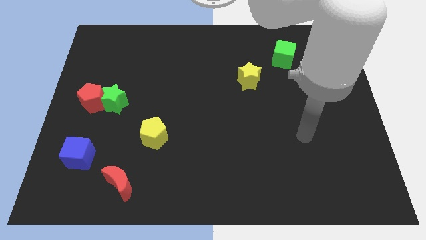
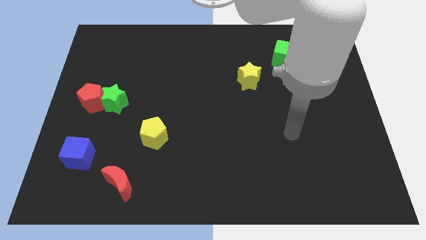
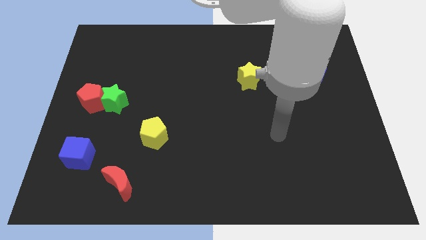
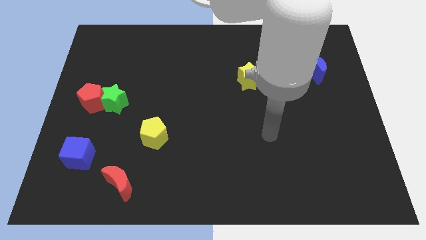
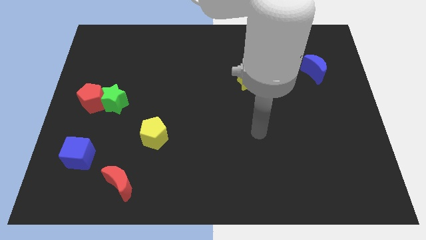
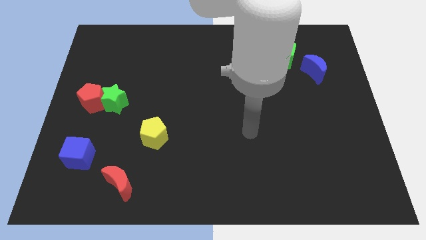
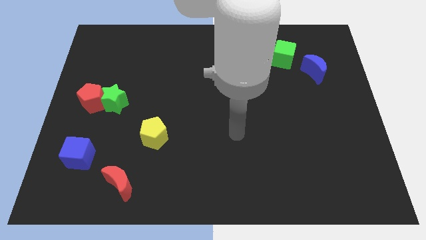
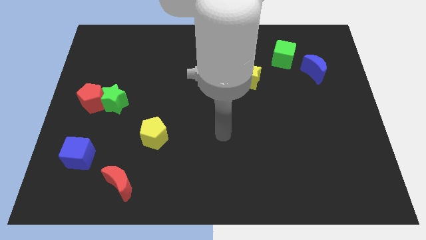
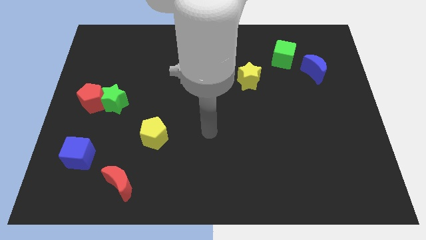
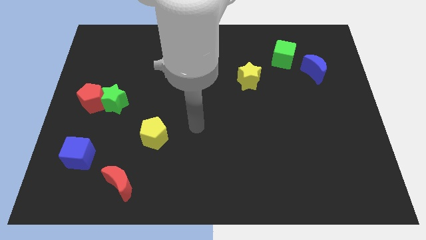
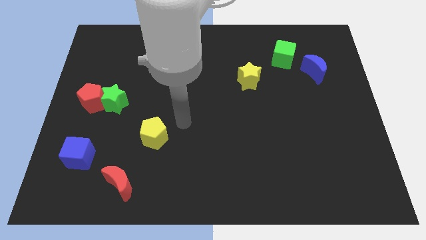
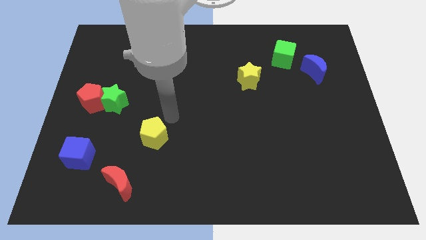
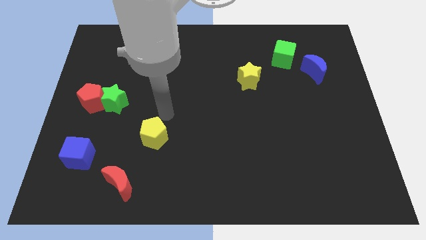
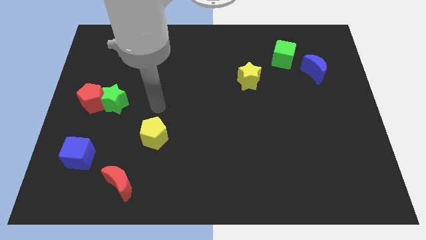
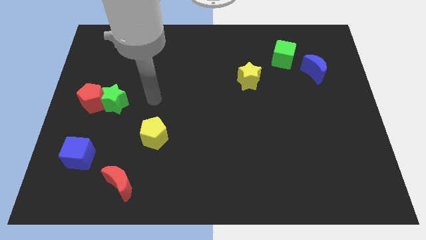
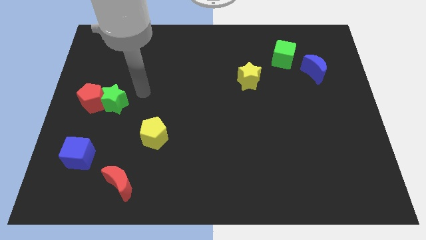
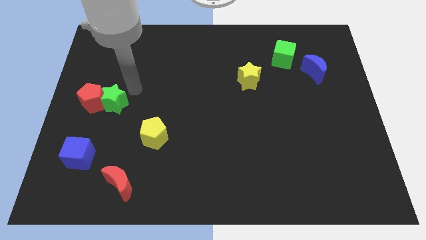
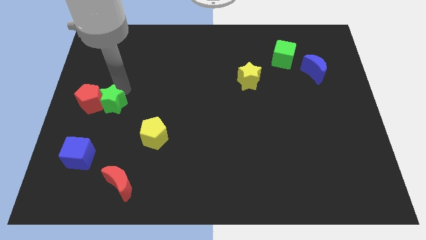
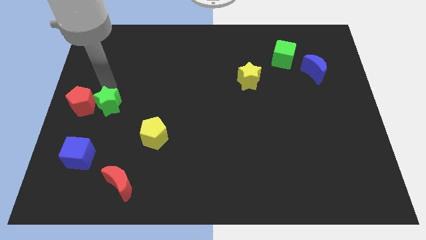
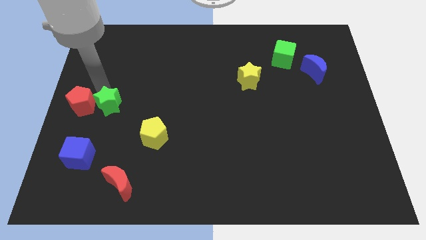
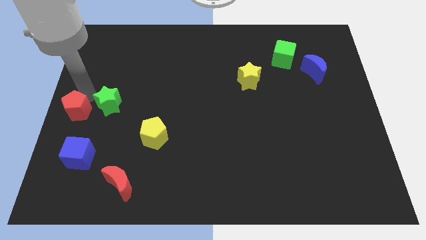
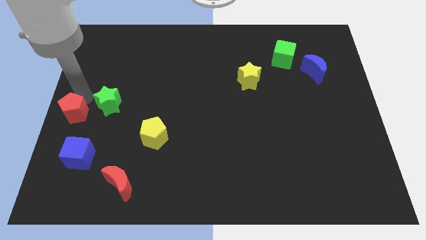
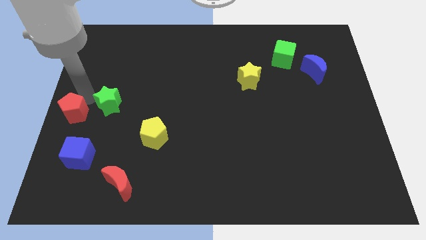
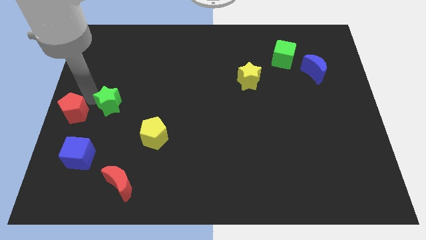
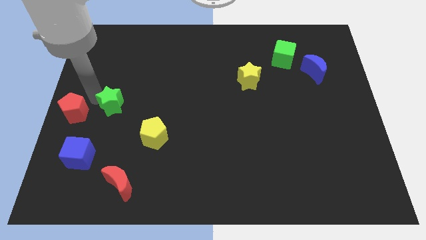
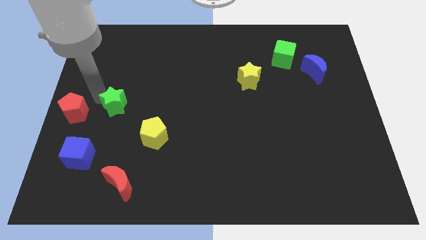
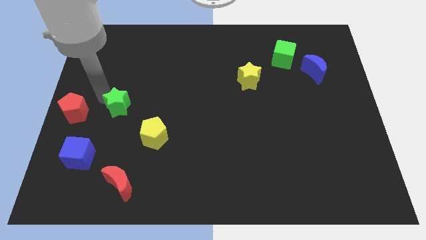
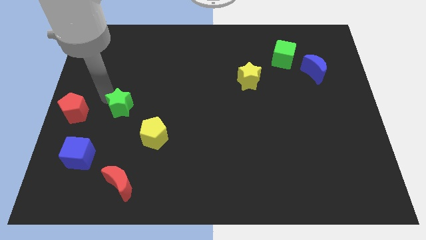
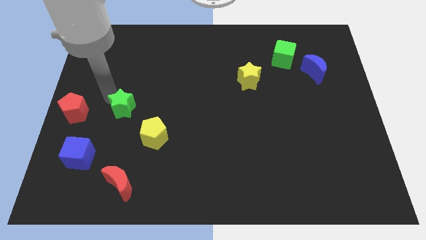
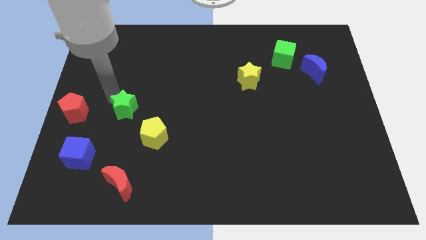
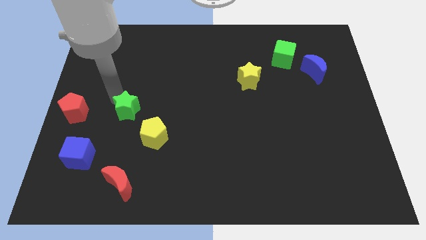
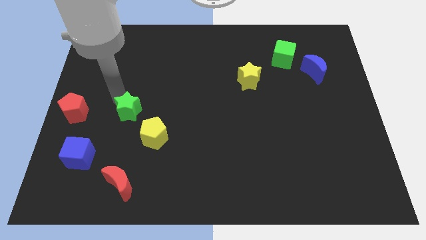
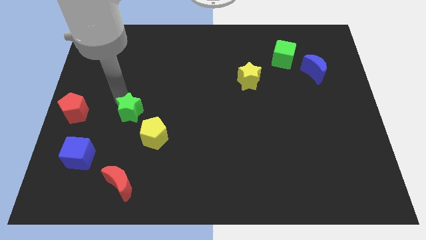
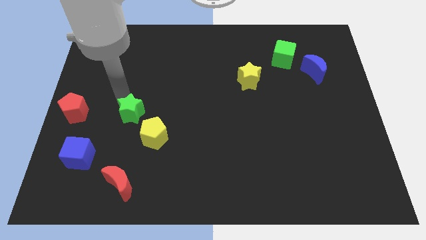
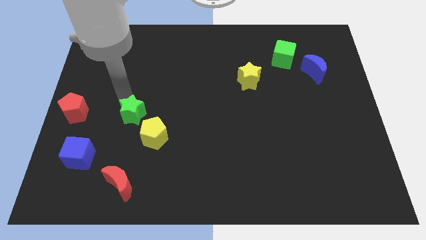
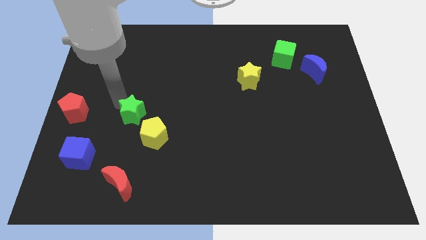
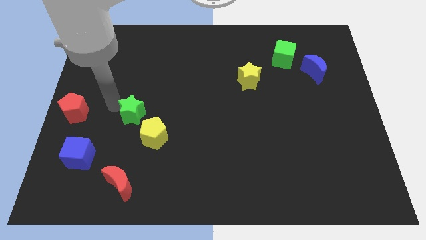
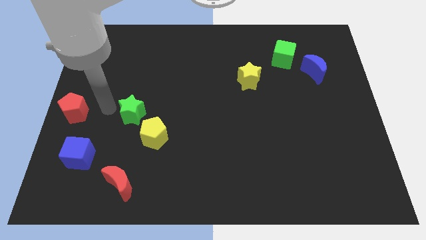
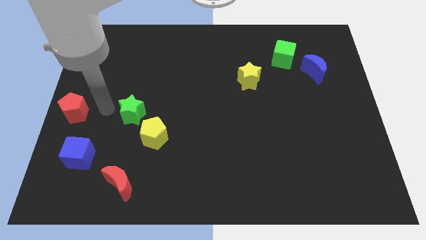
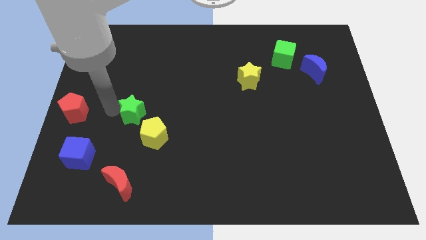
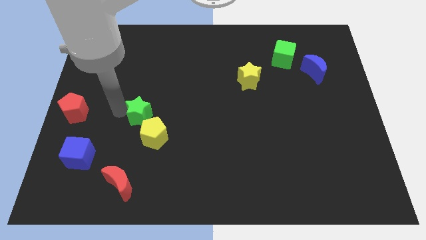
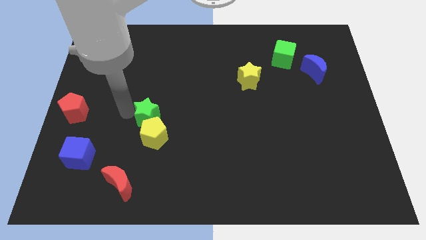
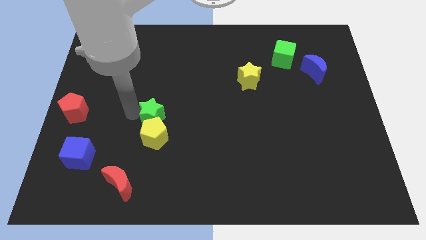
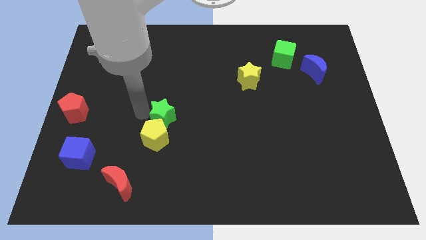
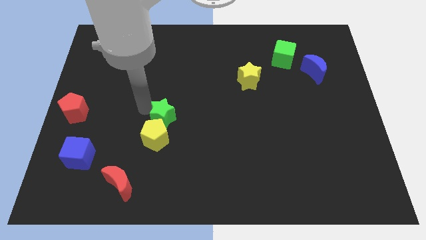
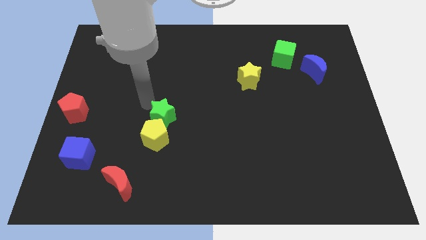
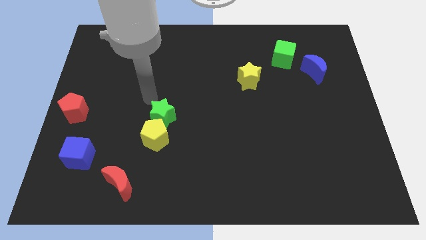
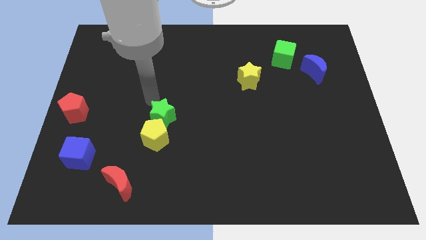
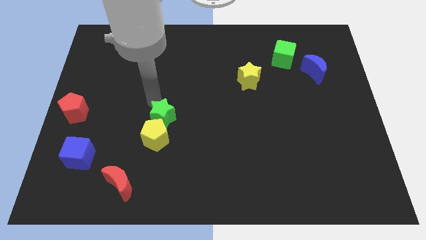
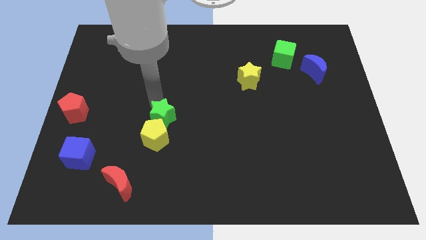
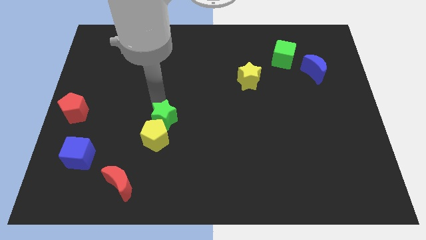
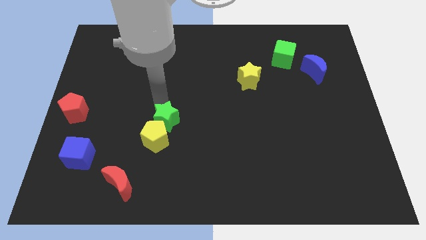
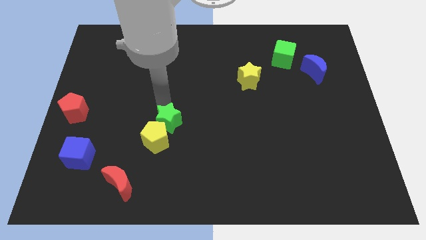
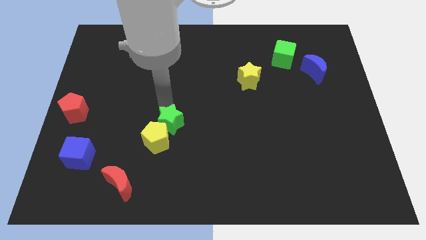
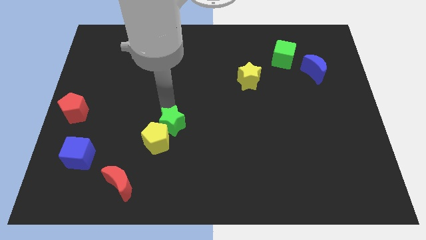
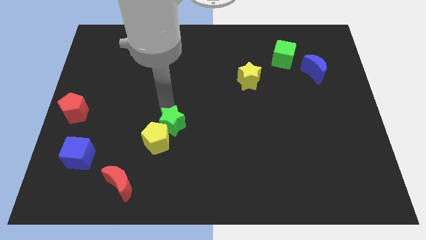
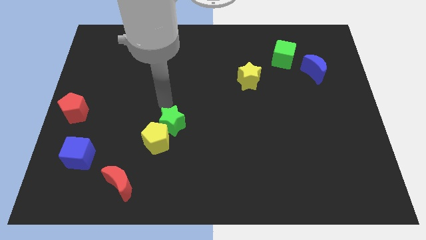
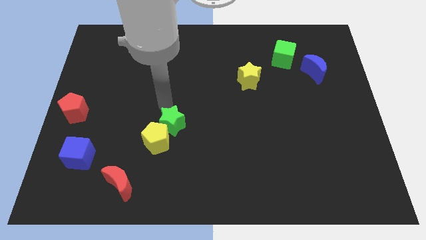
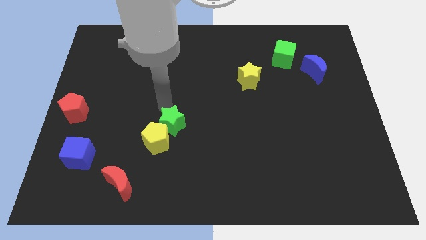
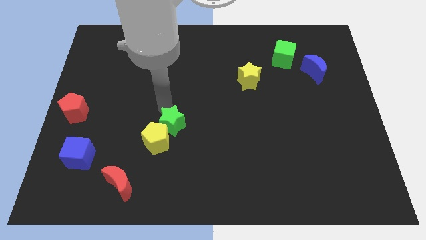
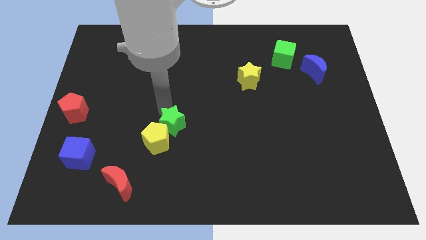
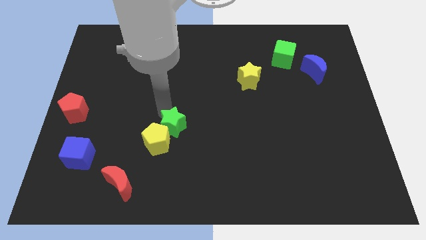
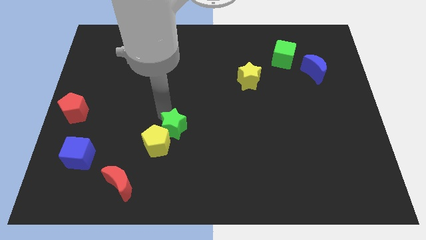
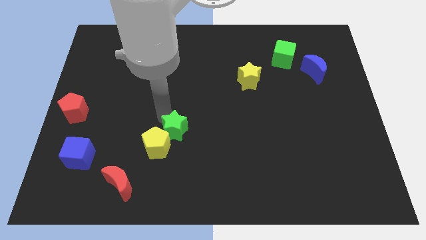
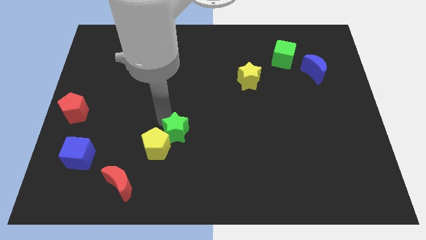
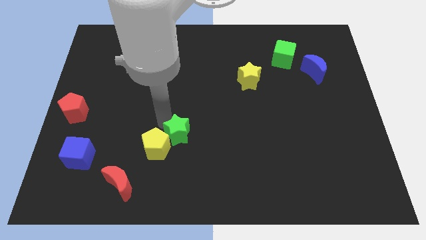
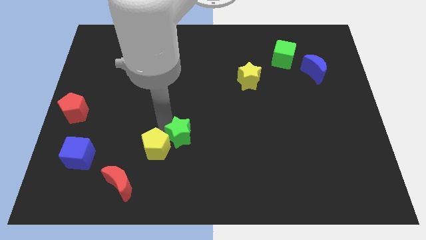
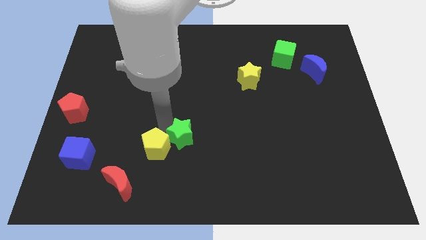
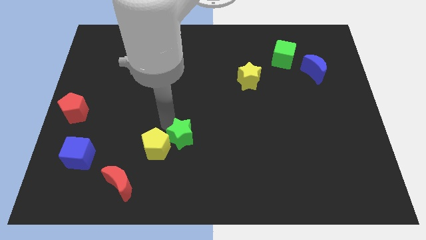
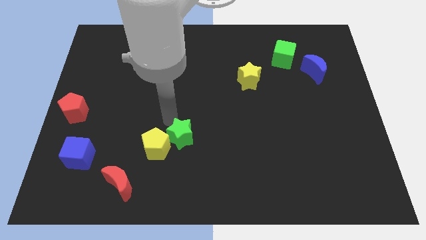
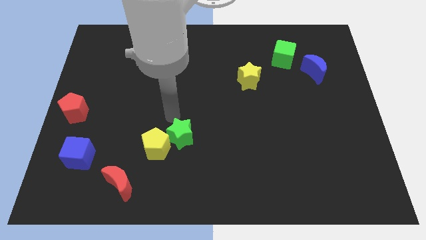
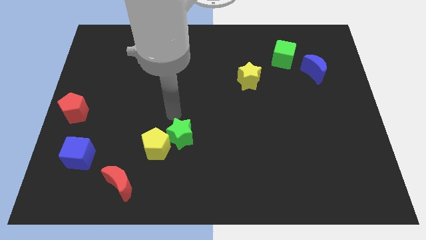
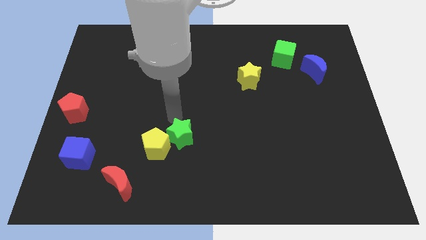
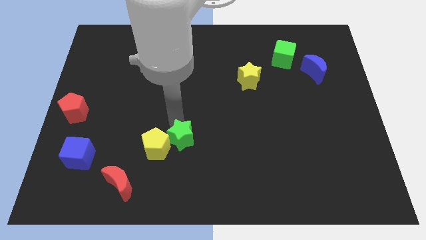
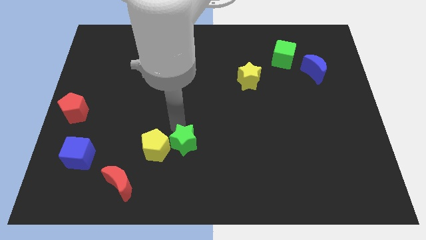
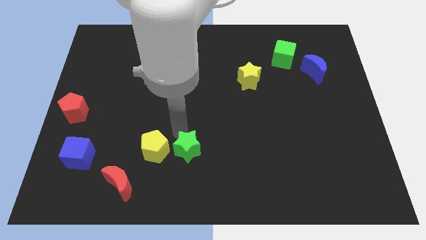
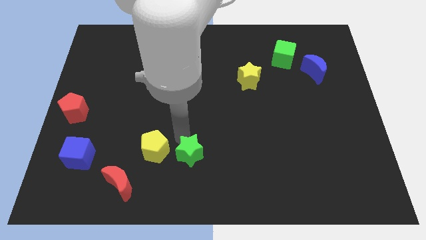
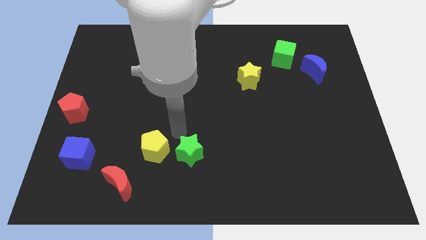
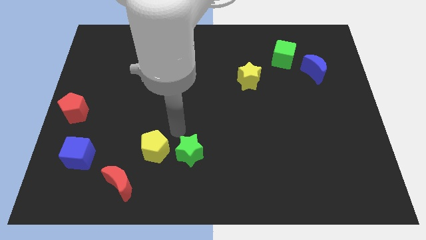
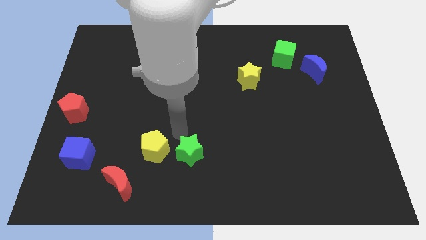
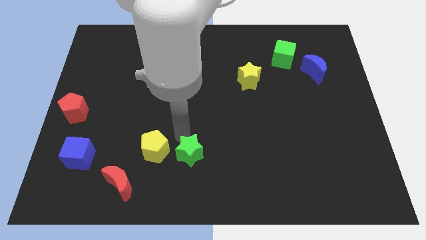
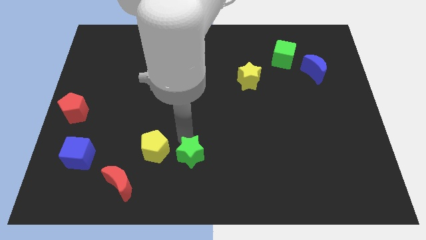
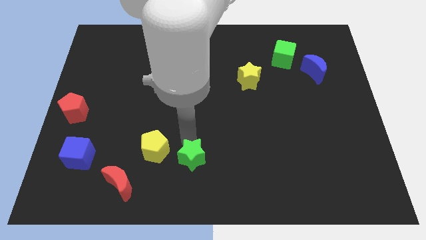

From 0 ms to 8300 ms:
push the green star to the bottom side
